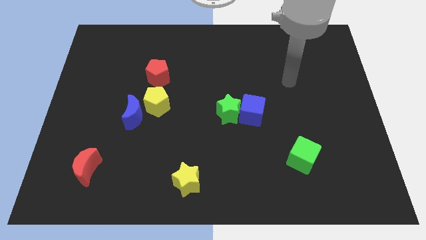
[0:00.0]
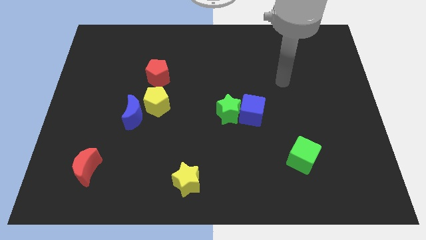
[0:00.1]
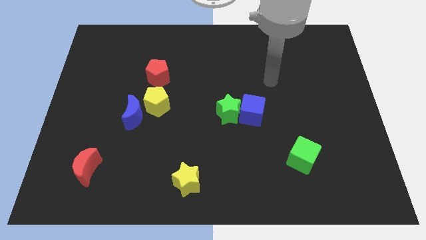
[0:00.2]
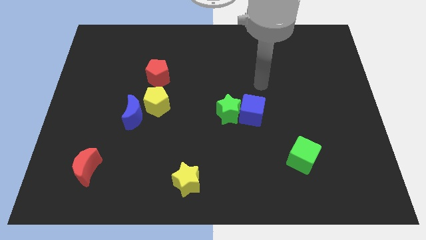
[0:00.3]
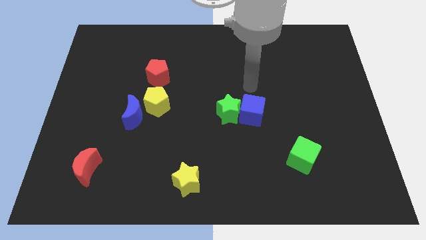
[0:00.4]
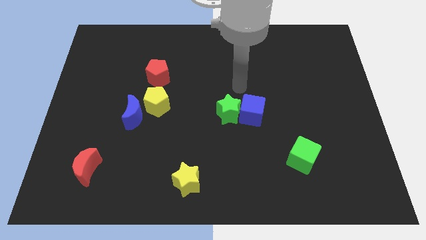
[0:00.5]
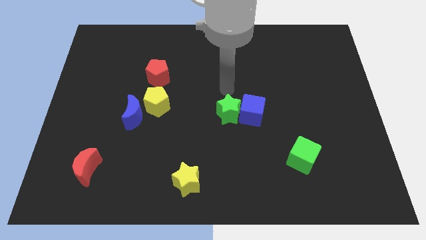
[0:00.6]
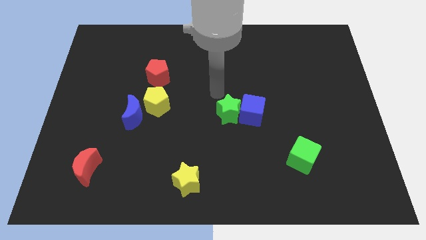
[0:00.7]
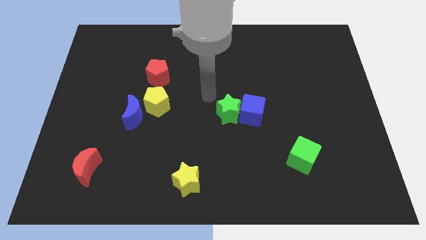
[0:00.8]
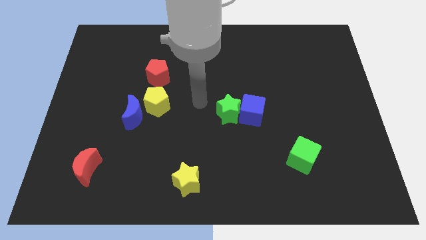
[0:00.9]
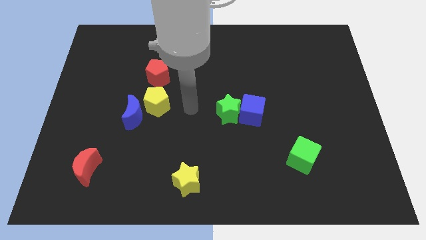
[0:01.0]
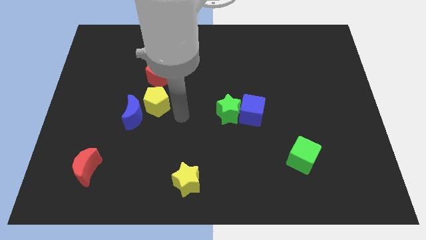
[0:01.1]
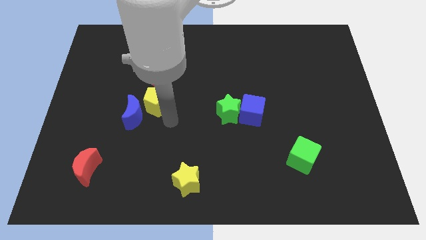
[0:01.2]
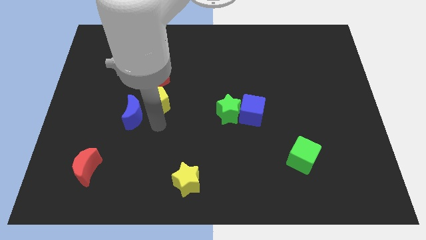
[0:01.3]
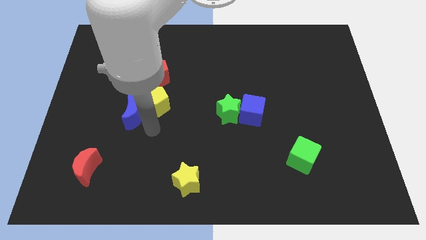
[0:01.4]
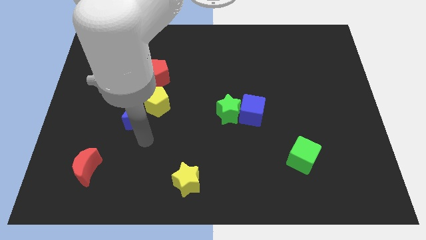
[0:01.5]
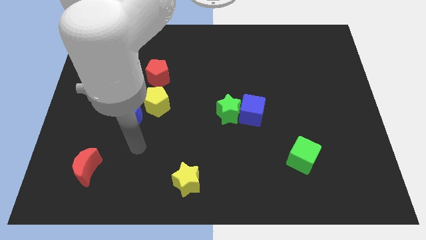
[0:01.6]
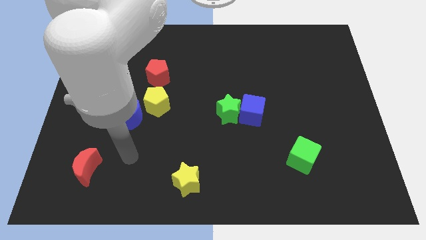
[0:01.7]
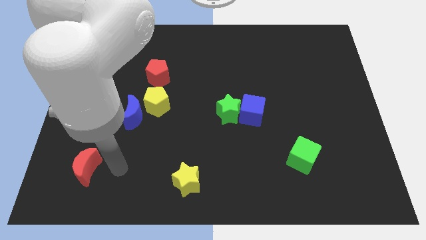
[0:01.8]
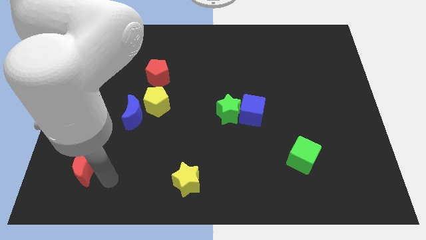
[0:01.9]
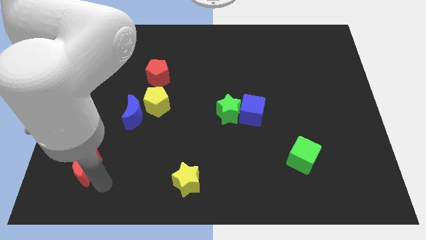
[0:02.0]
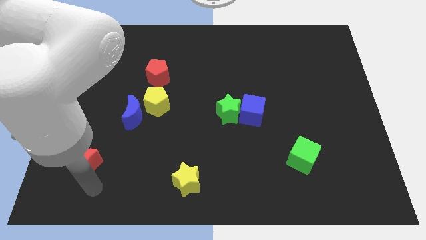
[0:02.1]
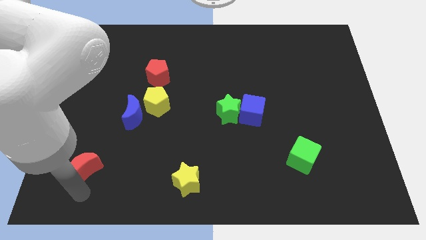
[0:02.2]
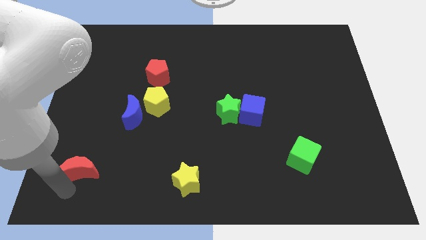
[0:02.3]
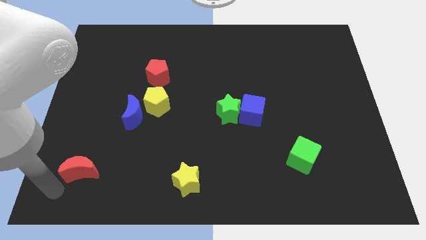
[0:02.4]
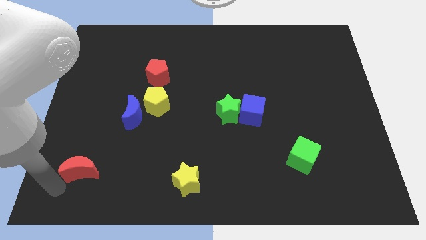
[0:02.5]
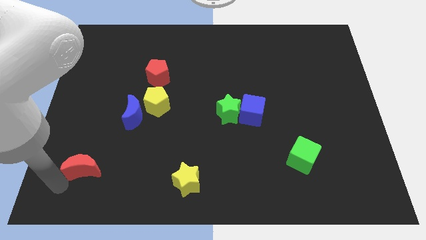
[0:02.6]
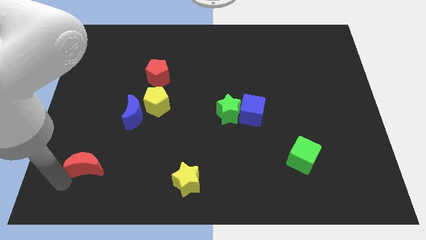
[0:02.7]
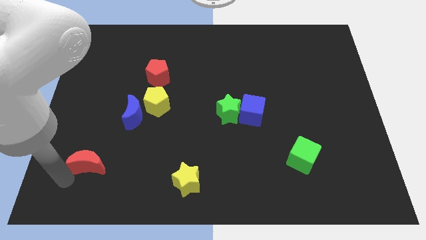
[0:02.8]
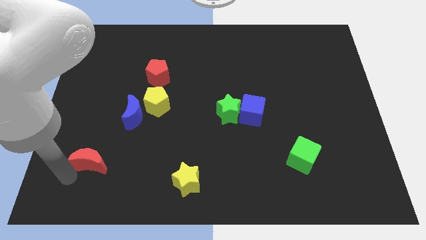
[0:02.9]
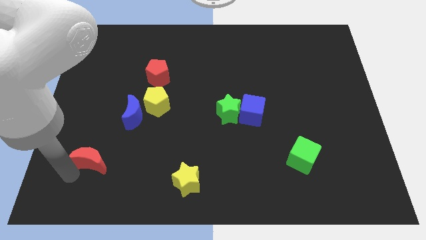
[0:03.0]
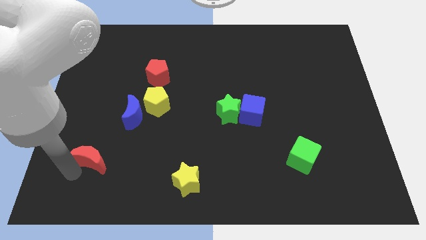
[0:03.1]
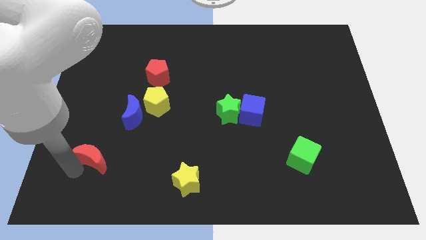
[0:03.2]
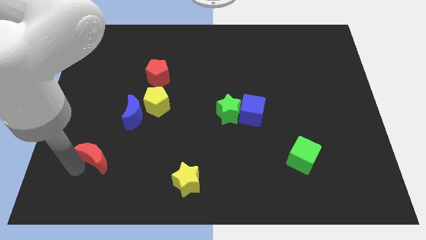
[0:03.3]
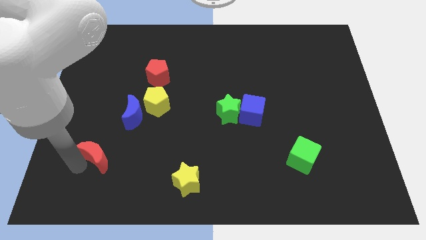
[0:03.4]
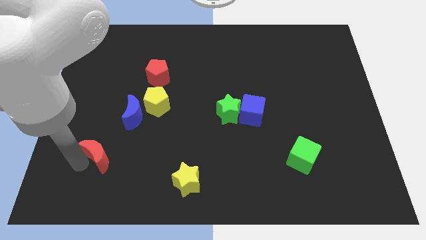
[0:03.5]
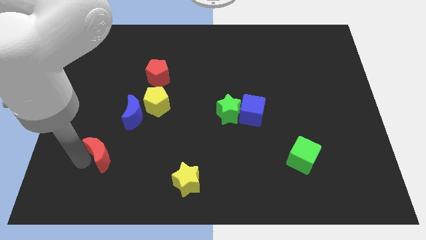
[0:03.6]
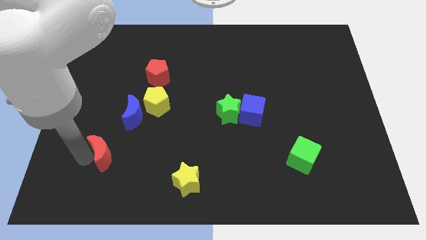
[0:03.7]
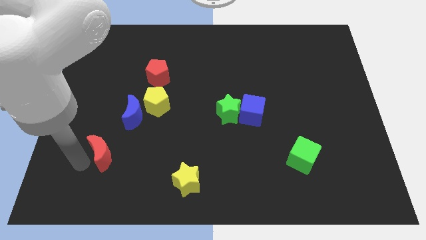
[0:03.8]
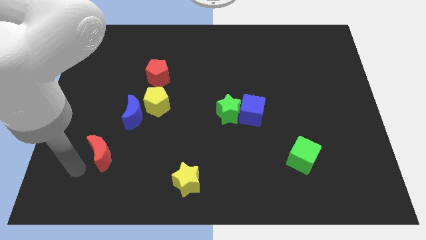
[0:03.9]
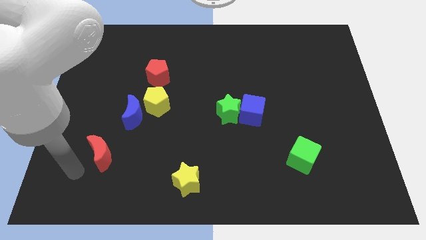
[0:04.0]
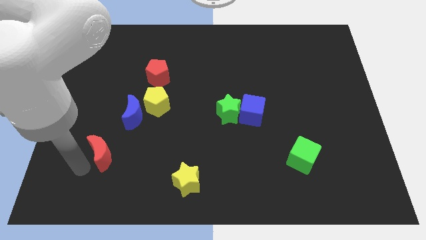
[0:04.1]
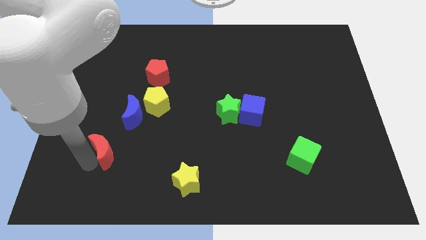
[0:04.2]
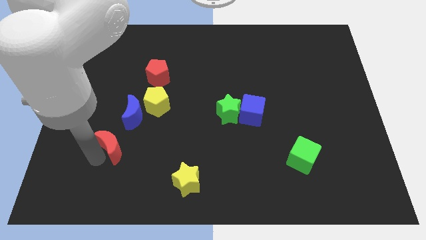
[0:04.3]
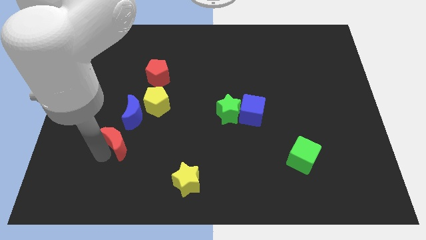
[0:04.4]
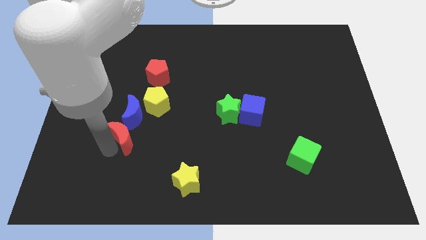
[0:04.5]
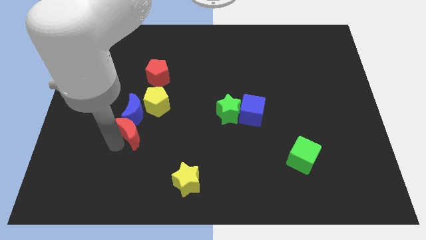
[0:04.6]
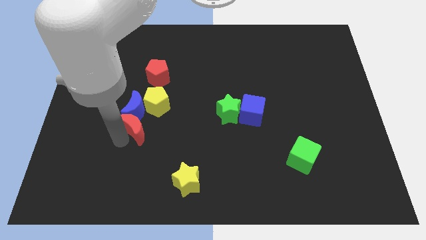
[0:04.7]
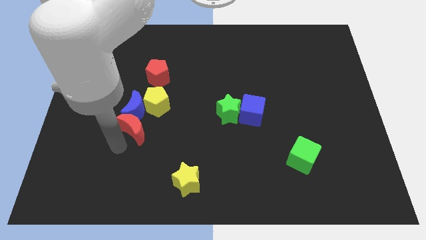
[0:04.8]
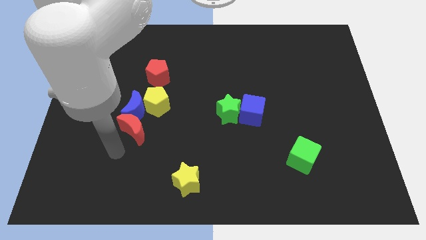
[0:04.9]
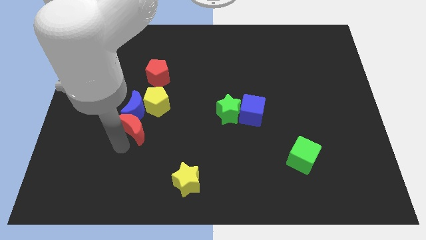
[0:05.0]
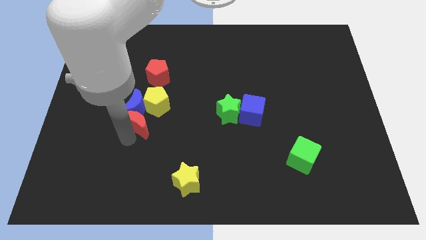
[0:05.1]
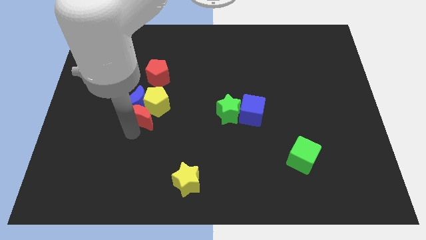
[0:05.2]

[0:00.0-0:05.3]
slide the red moon towards the yellow pentagon

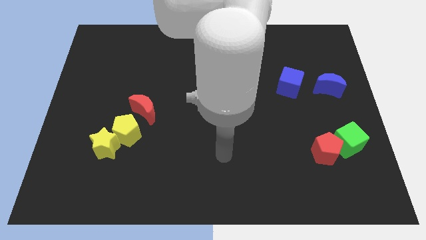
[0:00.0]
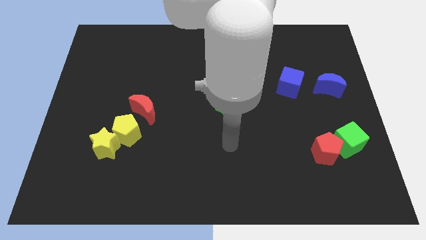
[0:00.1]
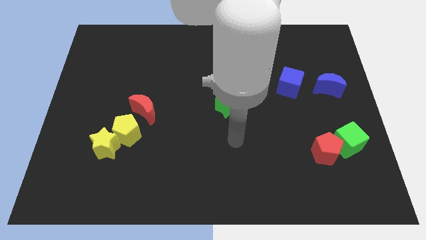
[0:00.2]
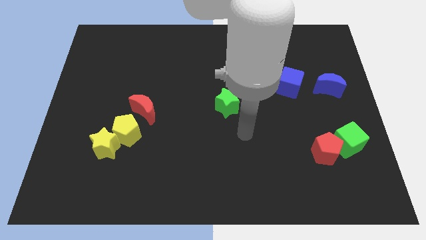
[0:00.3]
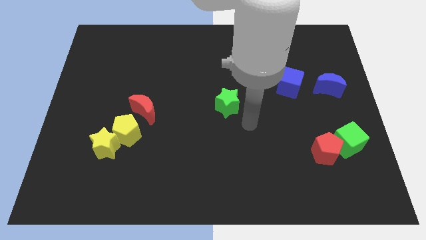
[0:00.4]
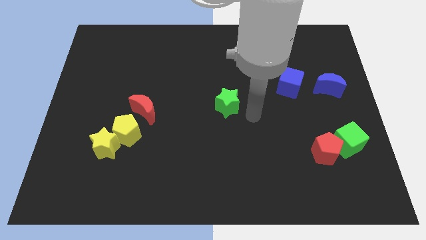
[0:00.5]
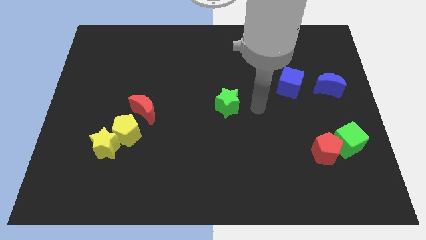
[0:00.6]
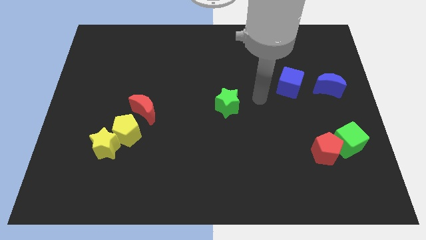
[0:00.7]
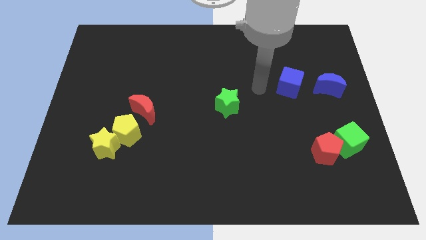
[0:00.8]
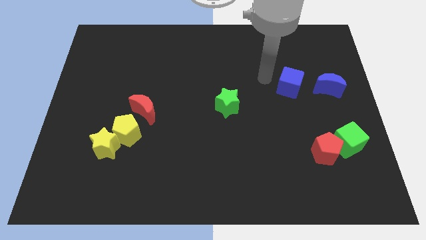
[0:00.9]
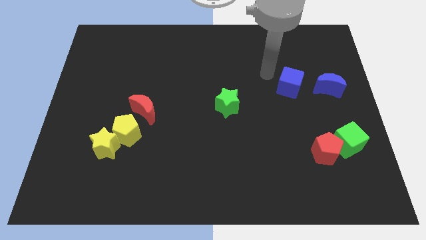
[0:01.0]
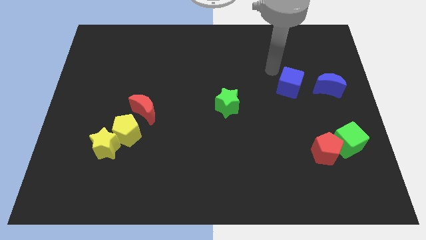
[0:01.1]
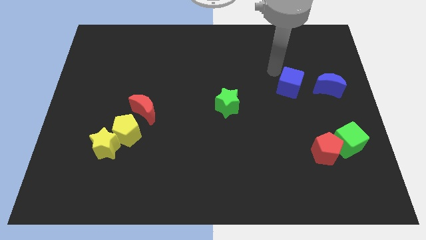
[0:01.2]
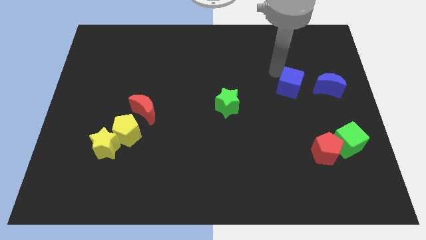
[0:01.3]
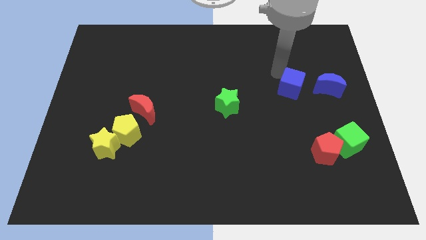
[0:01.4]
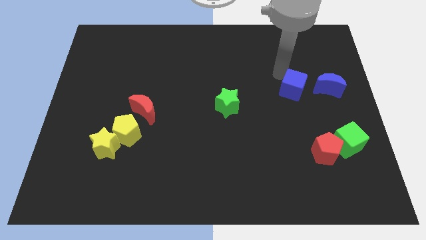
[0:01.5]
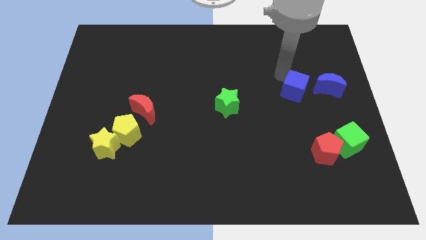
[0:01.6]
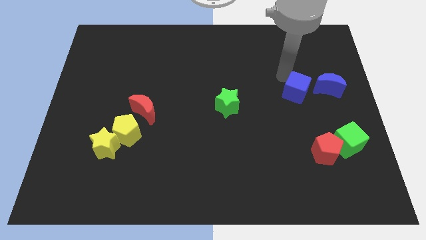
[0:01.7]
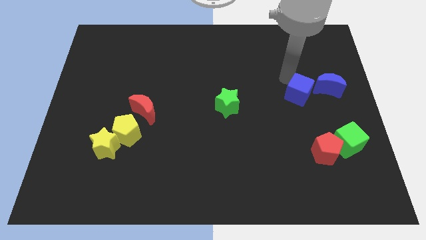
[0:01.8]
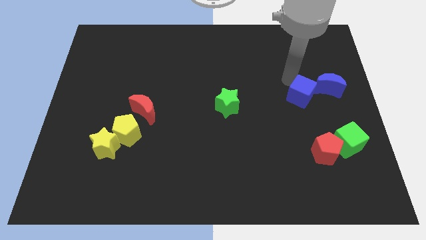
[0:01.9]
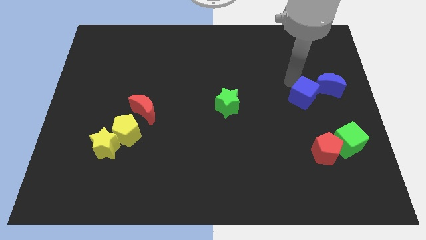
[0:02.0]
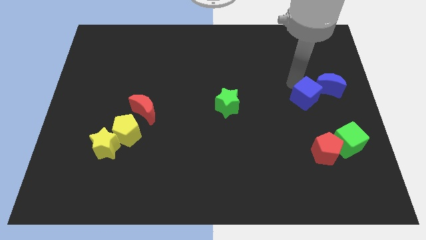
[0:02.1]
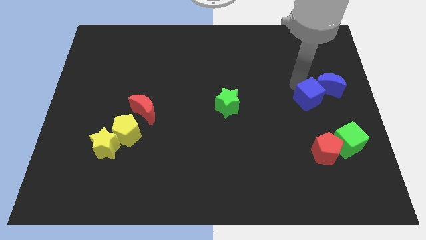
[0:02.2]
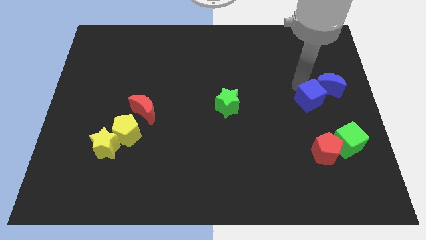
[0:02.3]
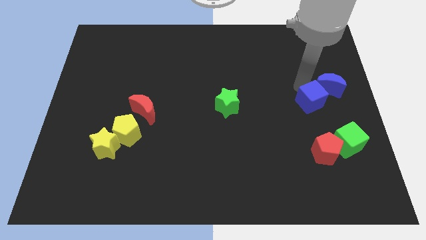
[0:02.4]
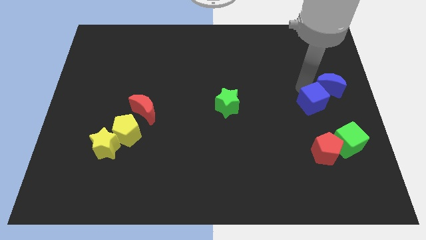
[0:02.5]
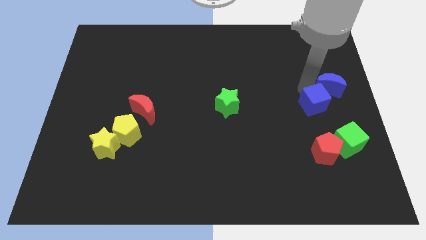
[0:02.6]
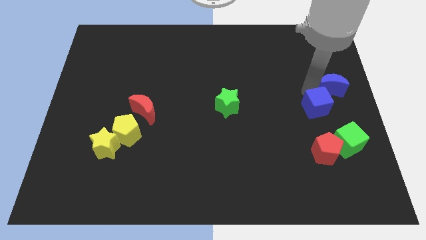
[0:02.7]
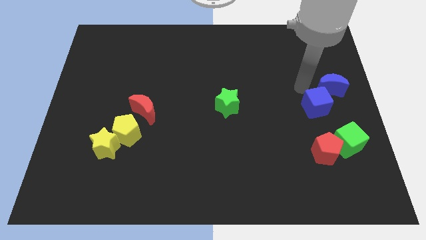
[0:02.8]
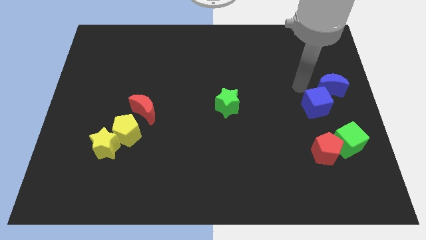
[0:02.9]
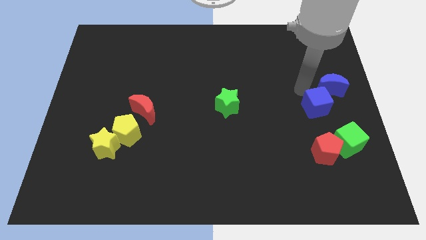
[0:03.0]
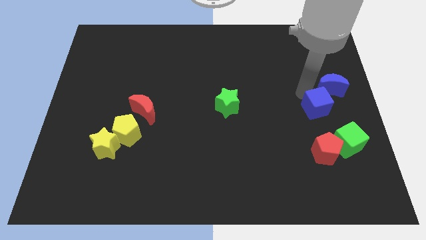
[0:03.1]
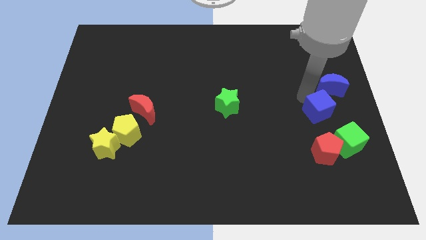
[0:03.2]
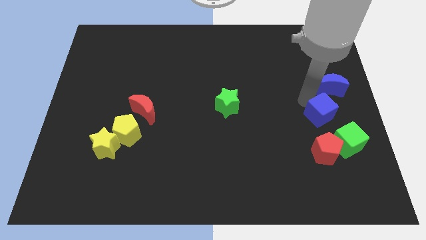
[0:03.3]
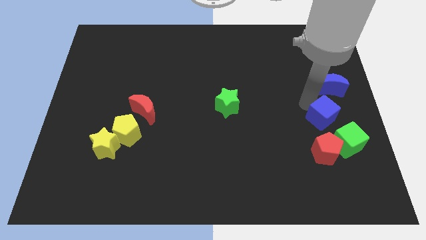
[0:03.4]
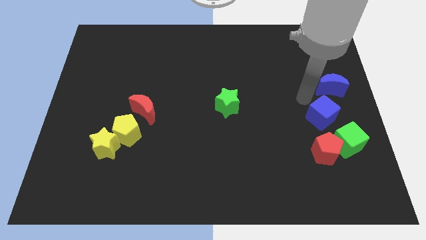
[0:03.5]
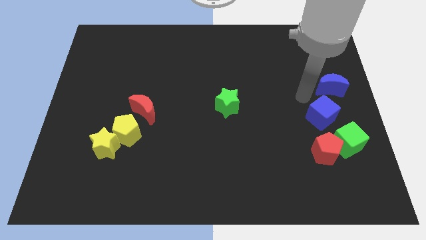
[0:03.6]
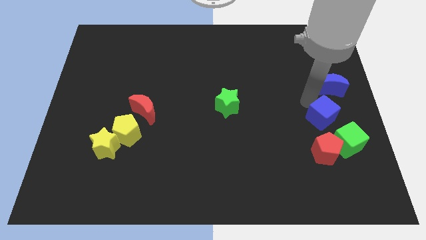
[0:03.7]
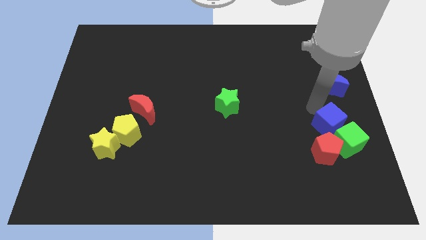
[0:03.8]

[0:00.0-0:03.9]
put the blue cube towards the green cube
